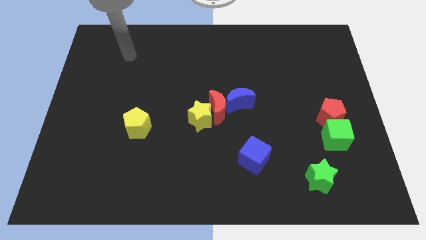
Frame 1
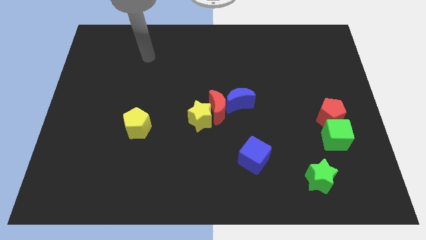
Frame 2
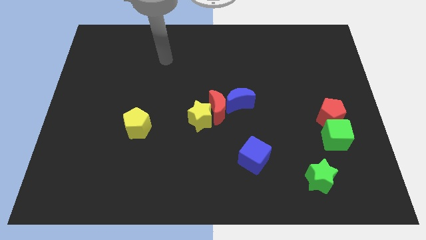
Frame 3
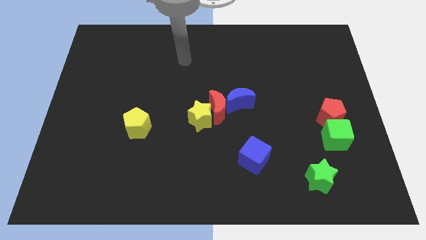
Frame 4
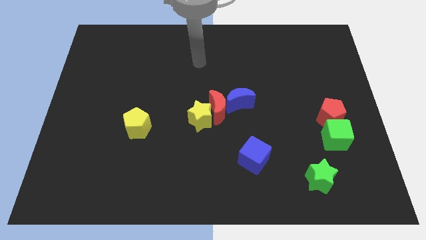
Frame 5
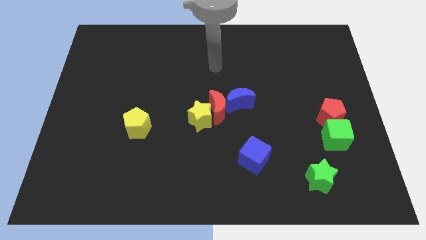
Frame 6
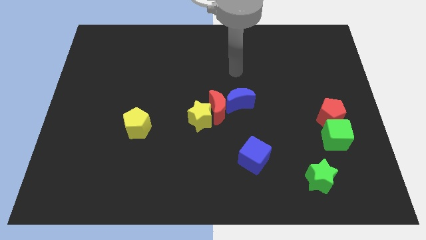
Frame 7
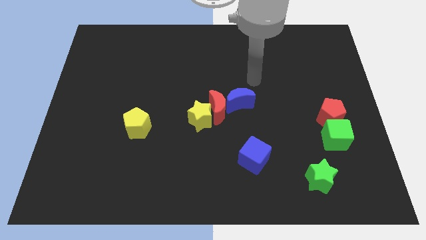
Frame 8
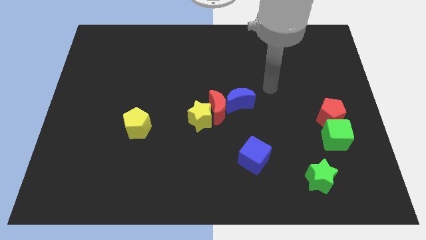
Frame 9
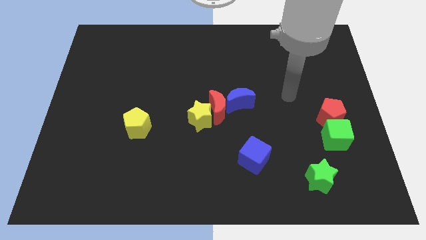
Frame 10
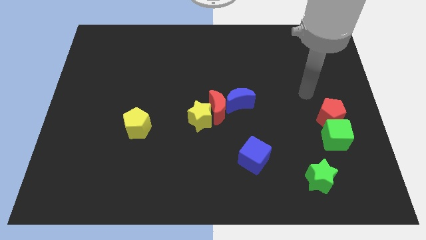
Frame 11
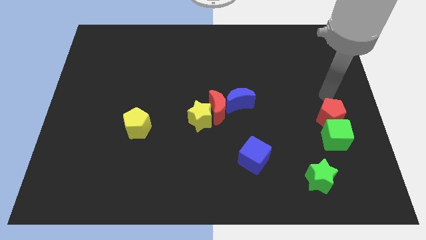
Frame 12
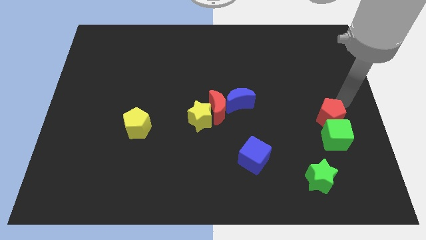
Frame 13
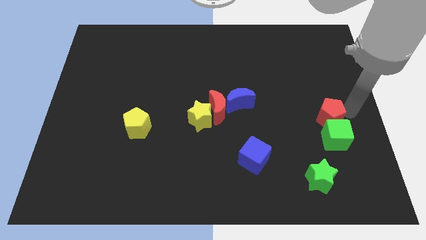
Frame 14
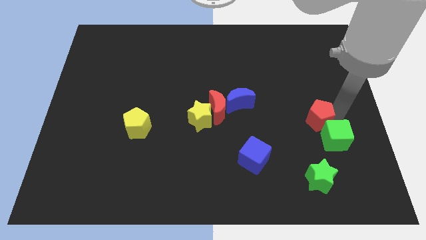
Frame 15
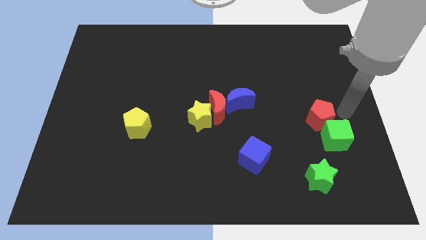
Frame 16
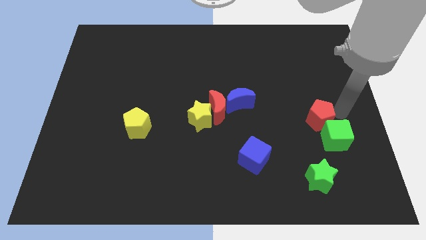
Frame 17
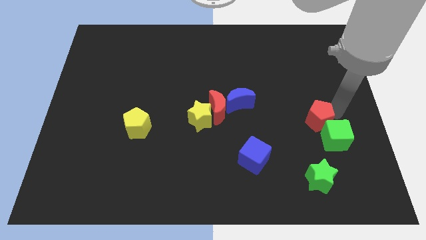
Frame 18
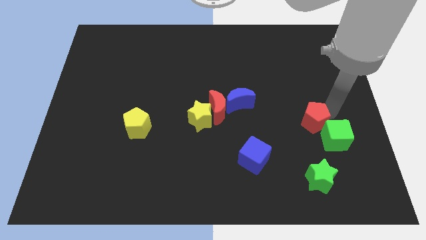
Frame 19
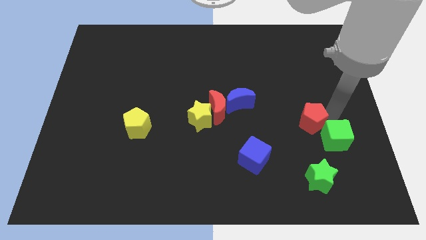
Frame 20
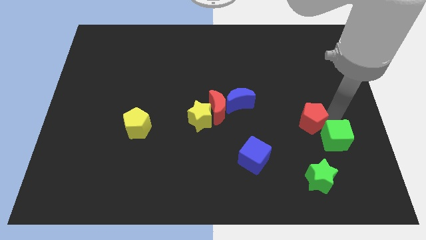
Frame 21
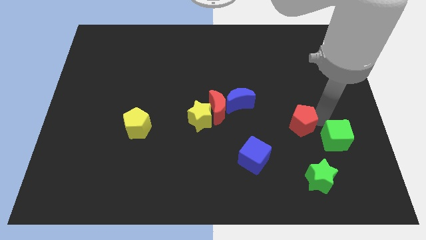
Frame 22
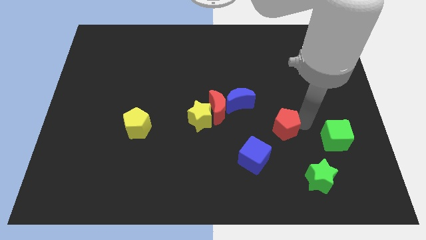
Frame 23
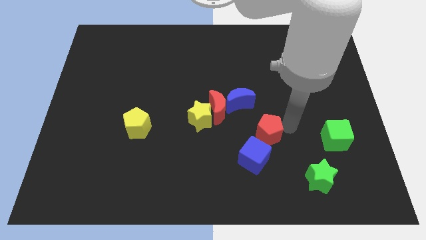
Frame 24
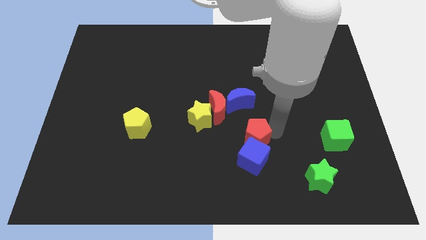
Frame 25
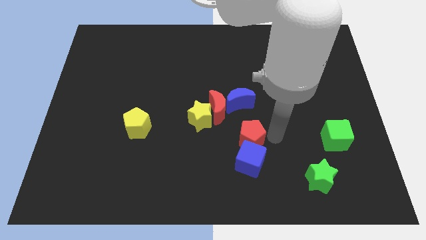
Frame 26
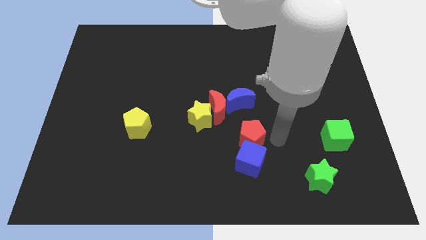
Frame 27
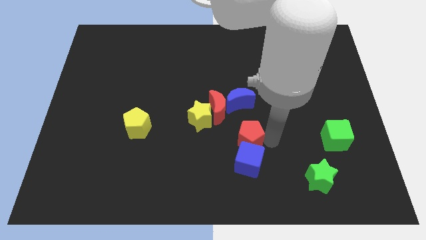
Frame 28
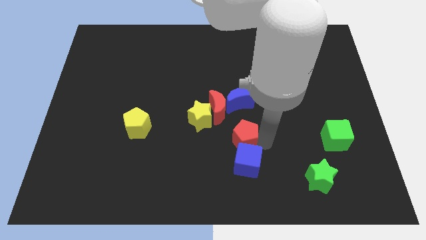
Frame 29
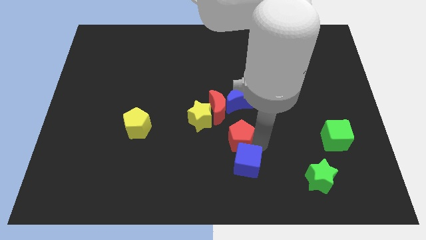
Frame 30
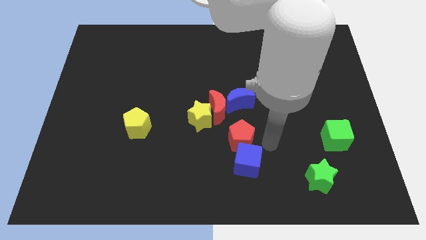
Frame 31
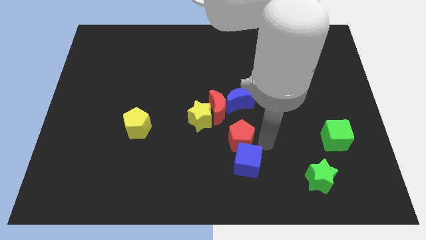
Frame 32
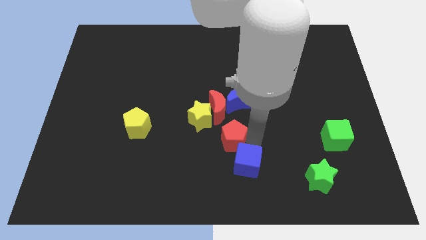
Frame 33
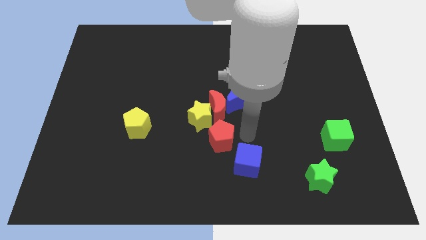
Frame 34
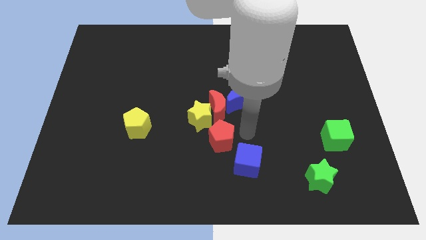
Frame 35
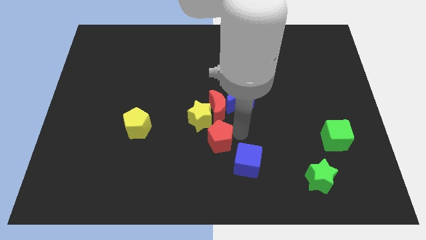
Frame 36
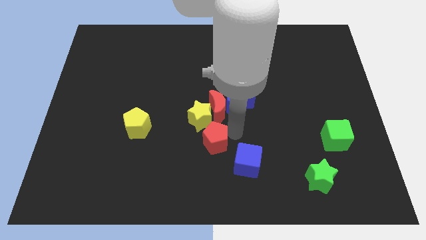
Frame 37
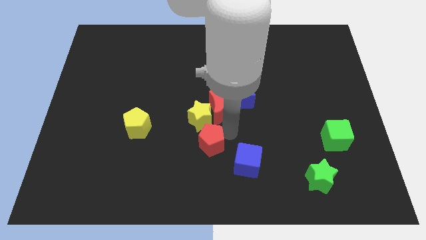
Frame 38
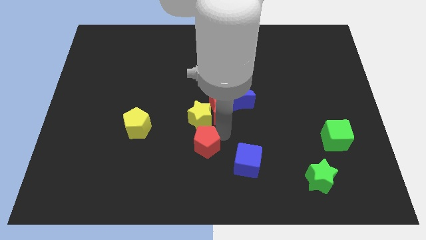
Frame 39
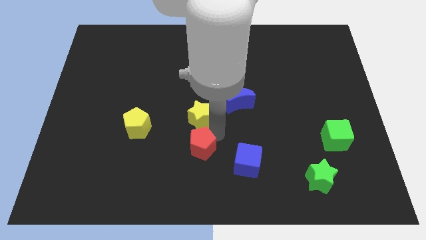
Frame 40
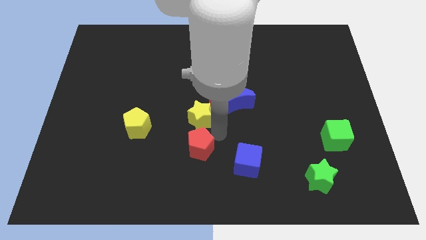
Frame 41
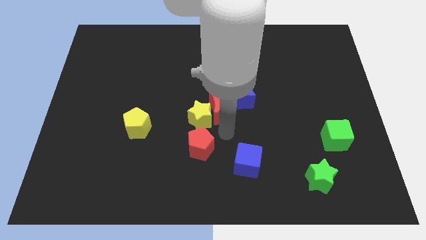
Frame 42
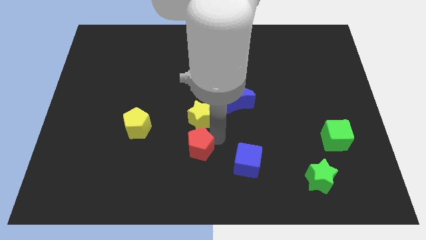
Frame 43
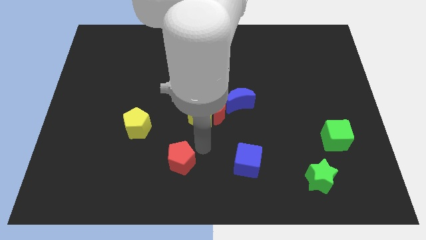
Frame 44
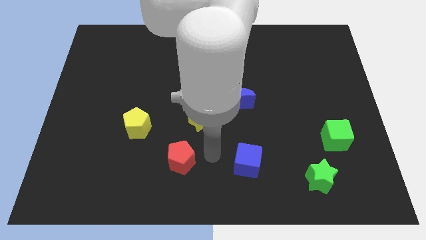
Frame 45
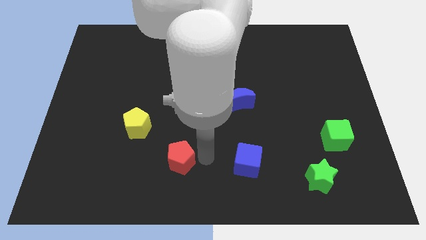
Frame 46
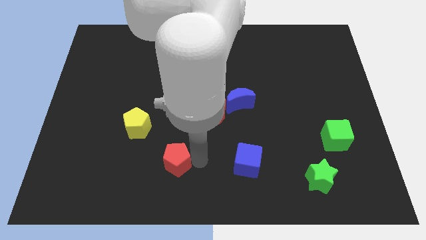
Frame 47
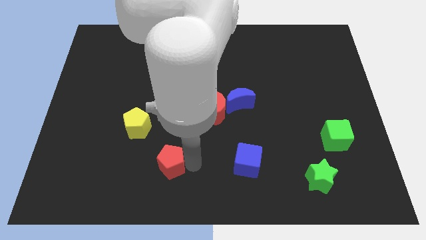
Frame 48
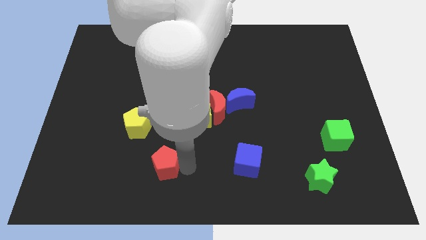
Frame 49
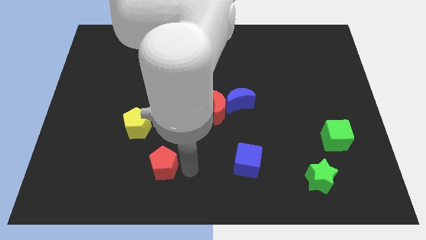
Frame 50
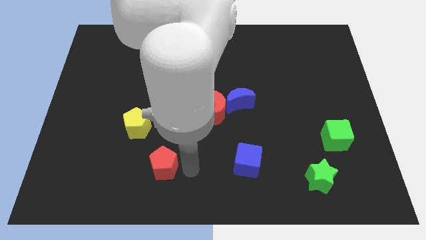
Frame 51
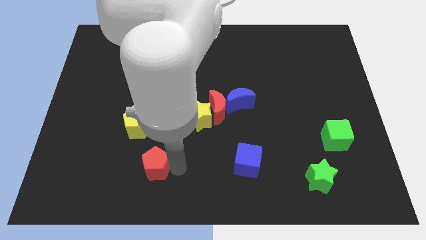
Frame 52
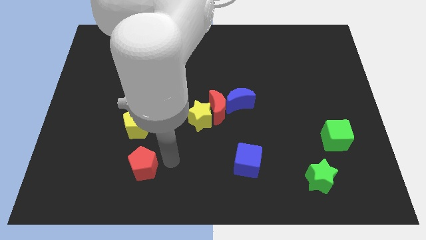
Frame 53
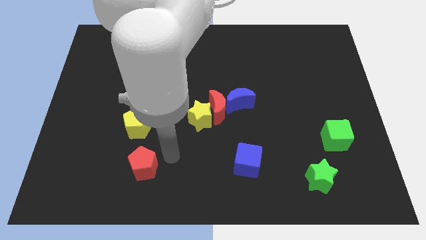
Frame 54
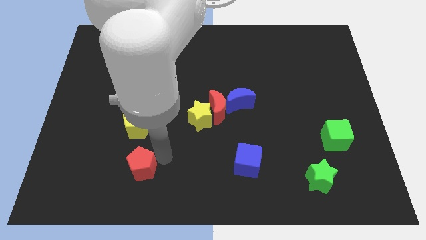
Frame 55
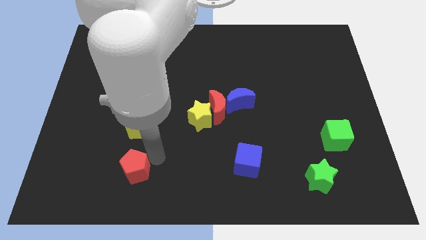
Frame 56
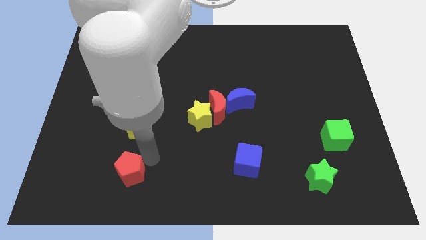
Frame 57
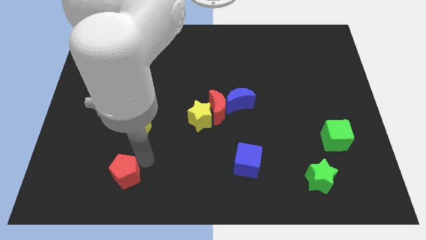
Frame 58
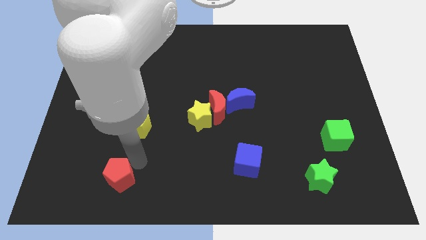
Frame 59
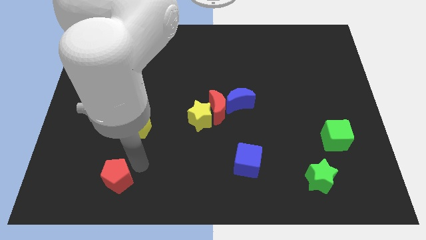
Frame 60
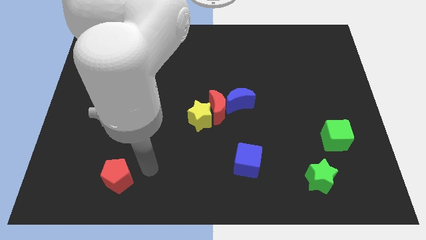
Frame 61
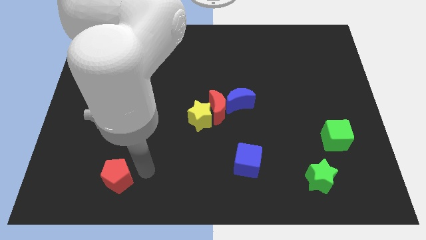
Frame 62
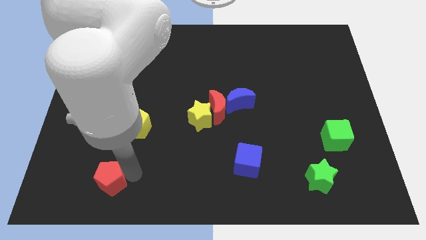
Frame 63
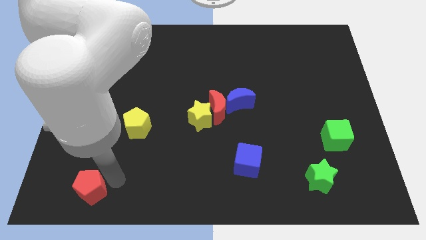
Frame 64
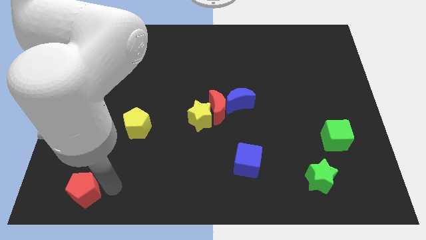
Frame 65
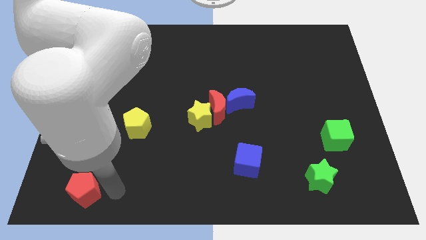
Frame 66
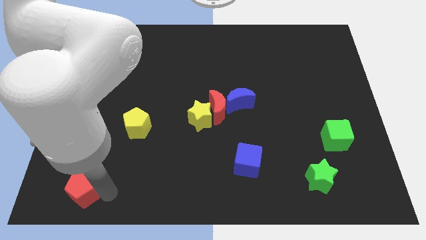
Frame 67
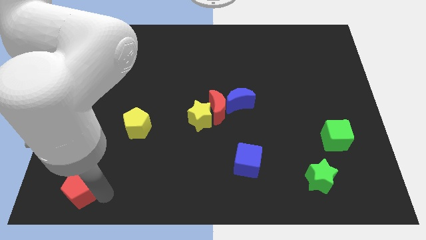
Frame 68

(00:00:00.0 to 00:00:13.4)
move the red pentagon to the bottom left corner
